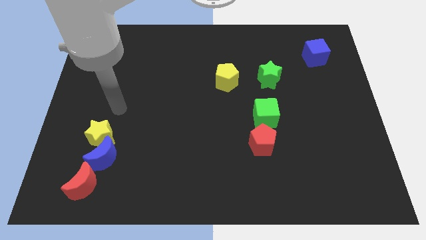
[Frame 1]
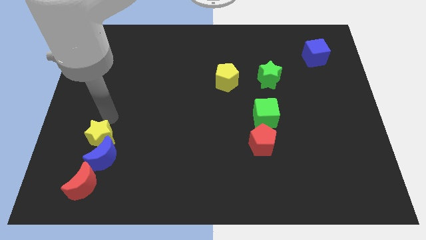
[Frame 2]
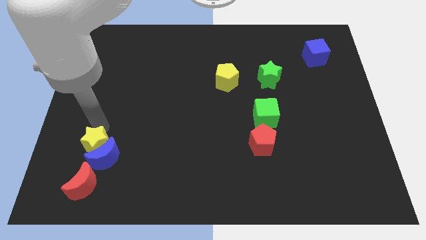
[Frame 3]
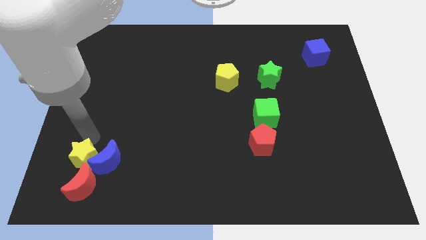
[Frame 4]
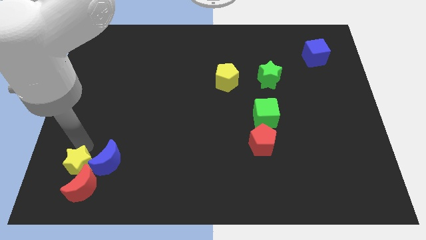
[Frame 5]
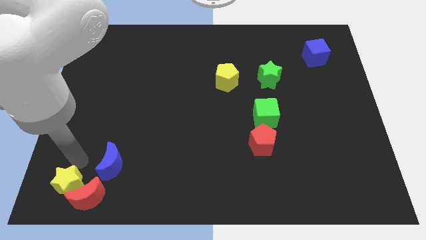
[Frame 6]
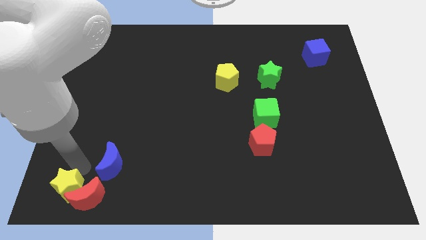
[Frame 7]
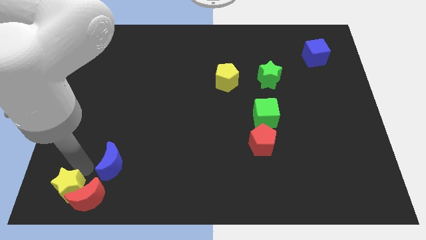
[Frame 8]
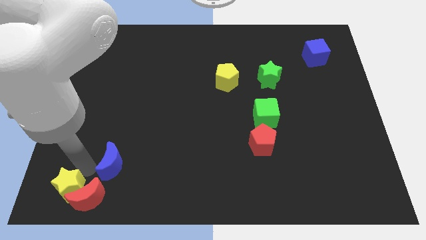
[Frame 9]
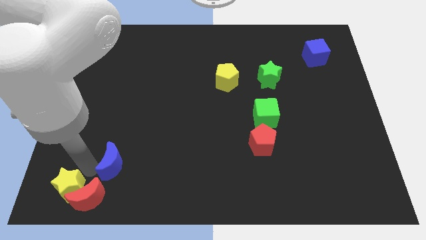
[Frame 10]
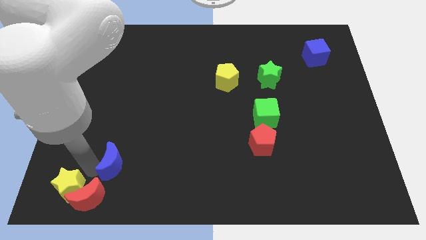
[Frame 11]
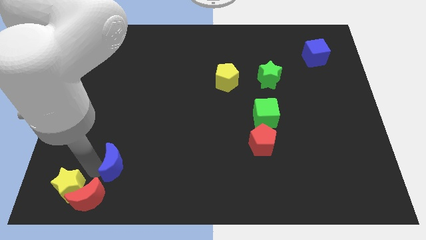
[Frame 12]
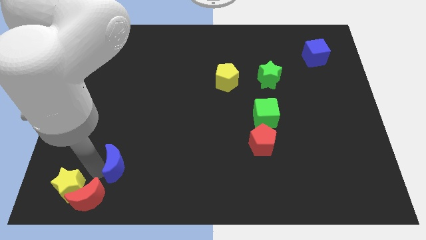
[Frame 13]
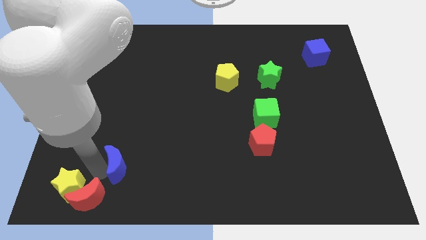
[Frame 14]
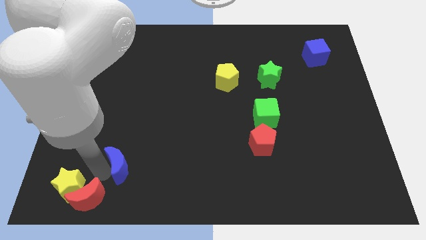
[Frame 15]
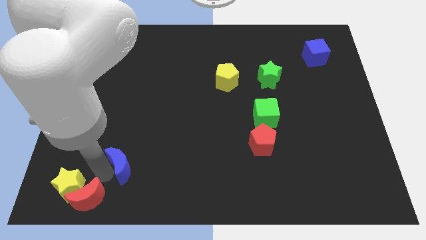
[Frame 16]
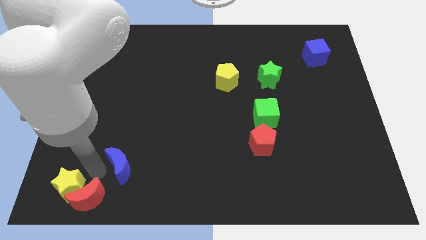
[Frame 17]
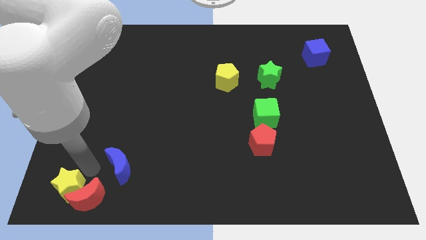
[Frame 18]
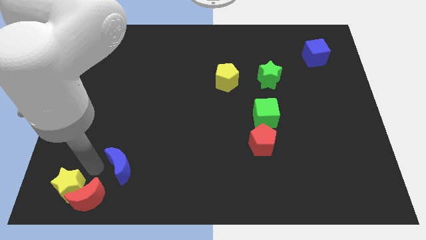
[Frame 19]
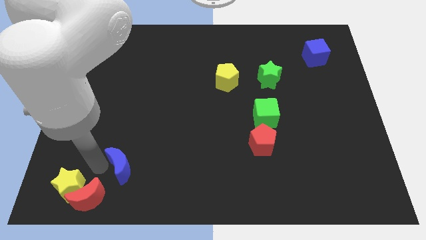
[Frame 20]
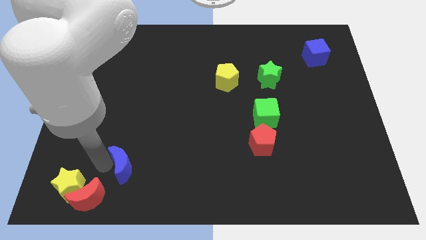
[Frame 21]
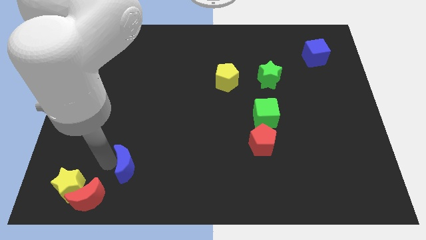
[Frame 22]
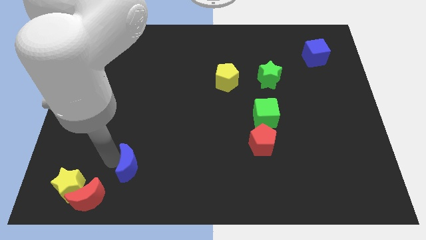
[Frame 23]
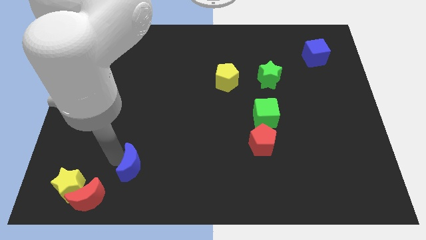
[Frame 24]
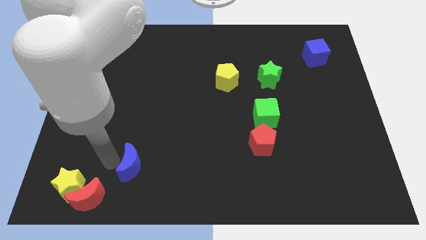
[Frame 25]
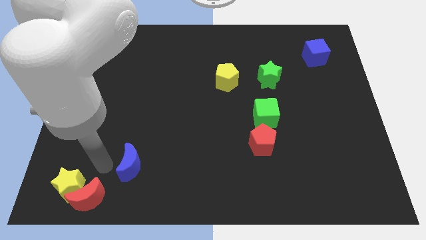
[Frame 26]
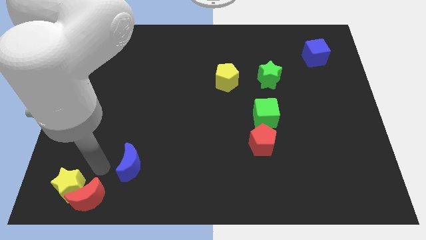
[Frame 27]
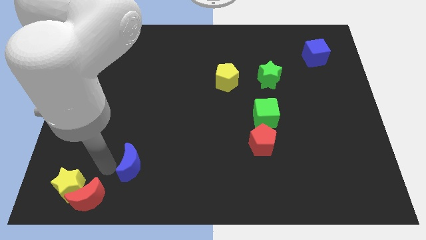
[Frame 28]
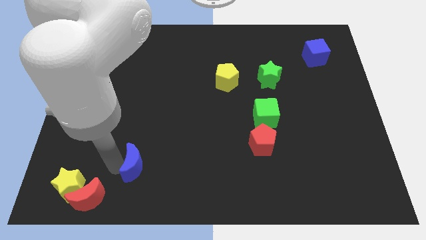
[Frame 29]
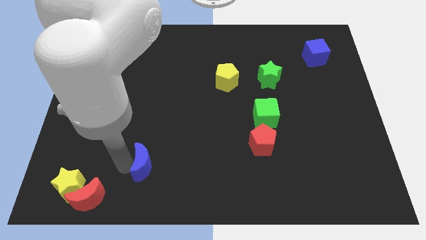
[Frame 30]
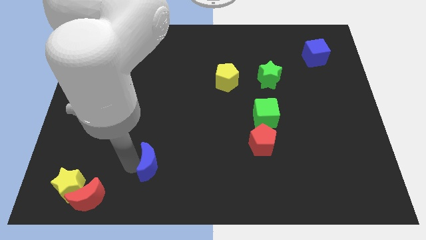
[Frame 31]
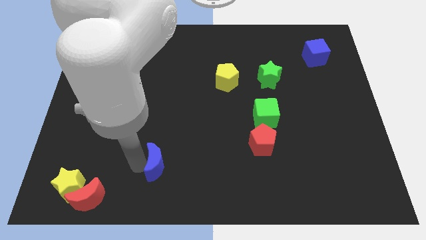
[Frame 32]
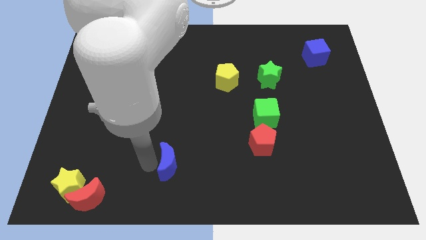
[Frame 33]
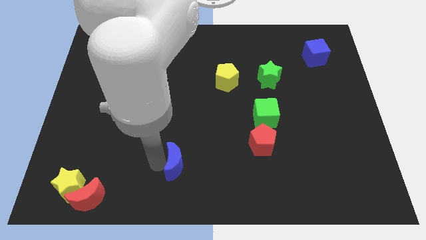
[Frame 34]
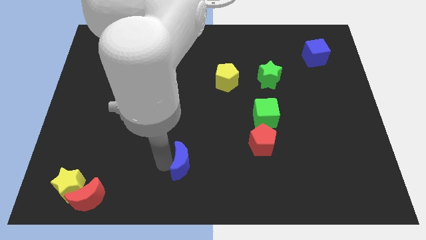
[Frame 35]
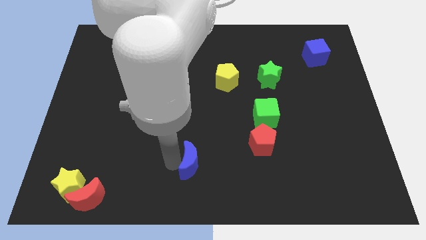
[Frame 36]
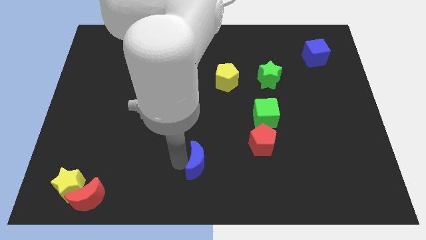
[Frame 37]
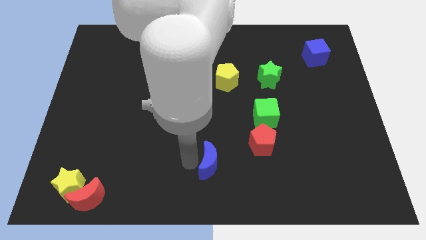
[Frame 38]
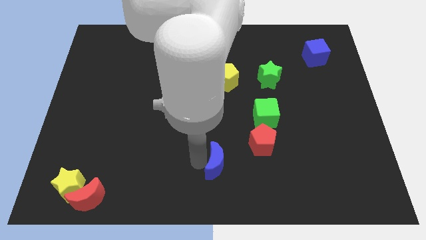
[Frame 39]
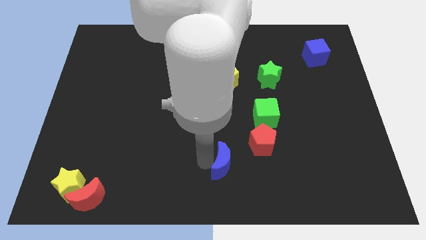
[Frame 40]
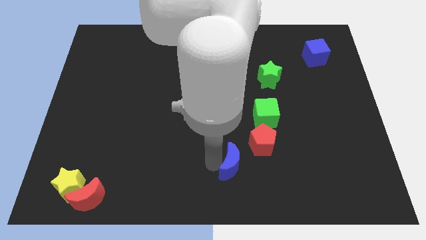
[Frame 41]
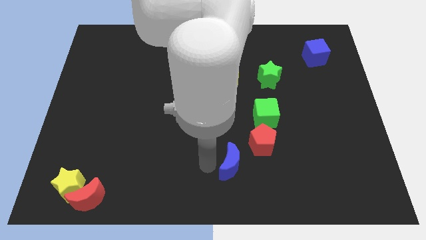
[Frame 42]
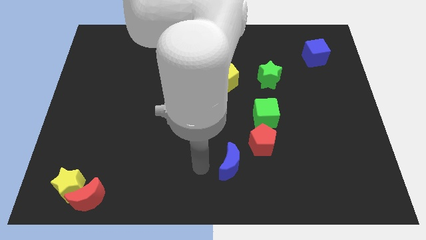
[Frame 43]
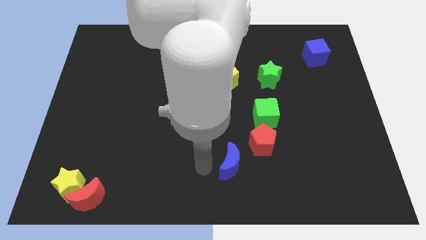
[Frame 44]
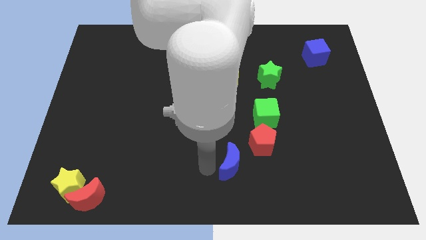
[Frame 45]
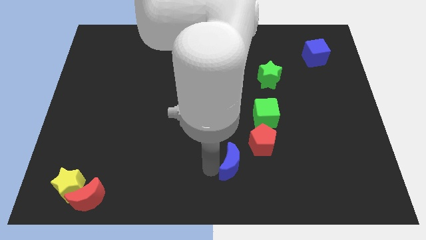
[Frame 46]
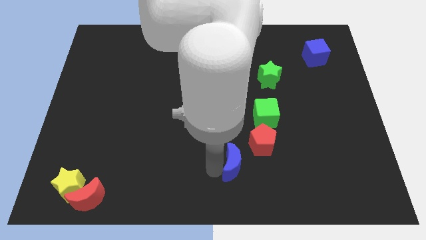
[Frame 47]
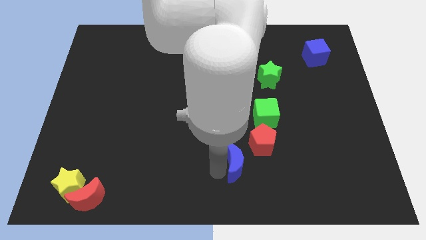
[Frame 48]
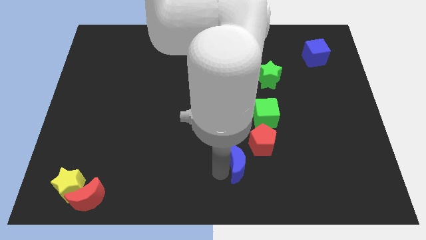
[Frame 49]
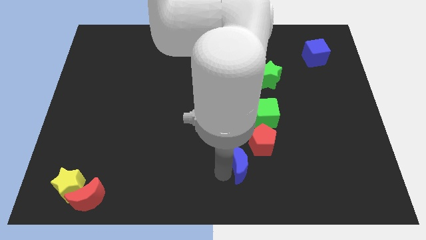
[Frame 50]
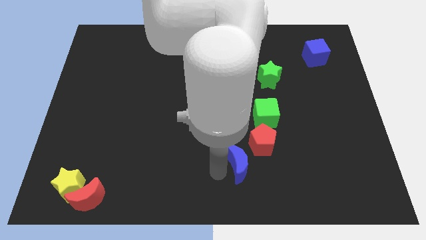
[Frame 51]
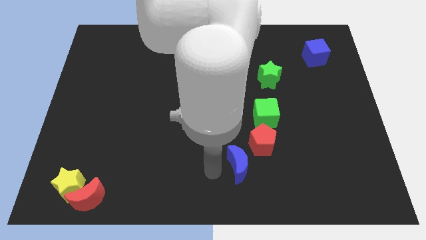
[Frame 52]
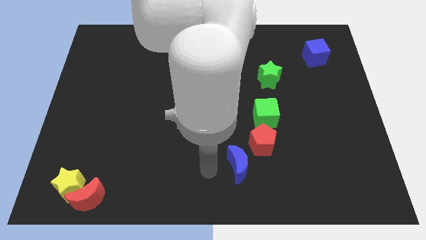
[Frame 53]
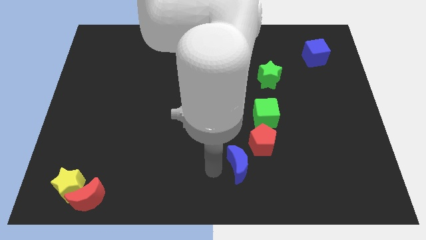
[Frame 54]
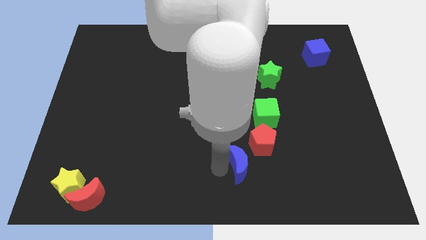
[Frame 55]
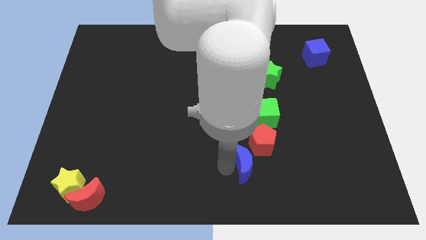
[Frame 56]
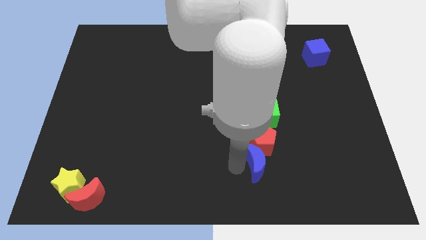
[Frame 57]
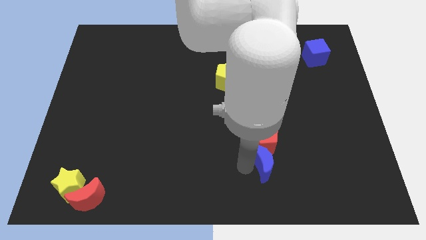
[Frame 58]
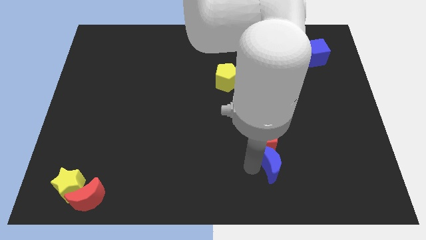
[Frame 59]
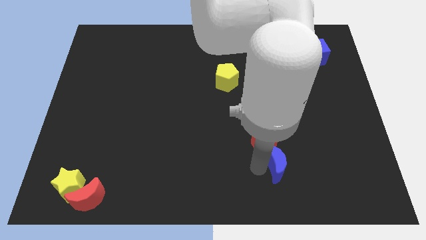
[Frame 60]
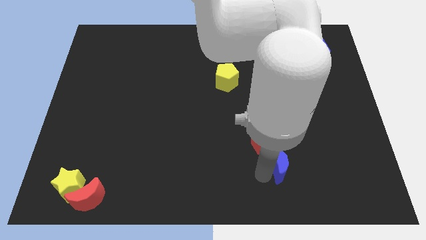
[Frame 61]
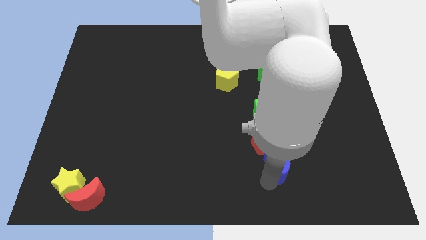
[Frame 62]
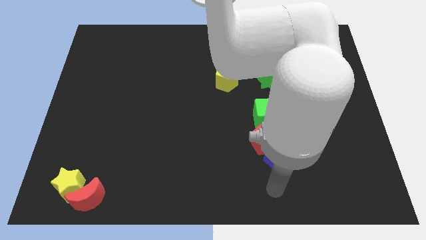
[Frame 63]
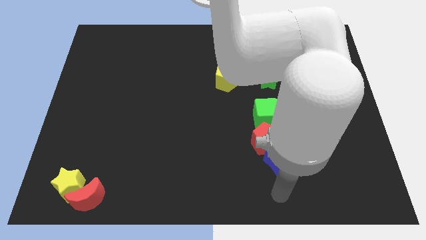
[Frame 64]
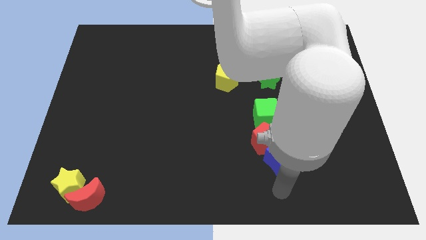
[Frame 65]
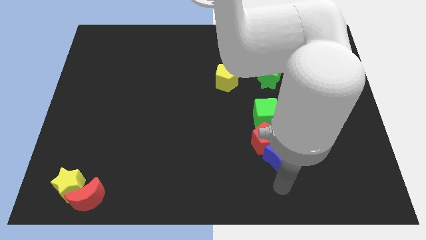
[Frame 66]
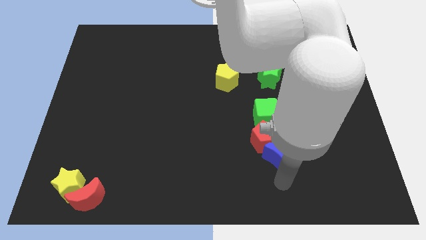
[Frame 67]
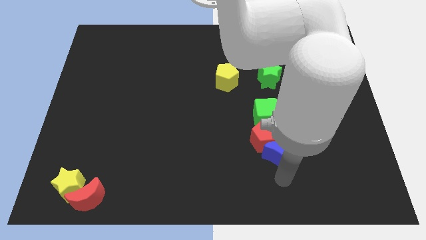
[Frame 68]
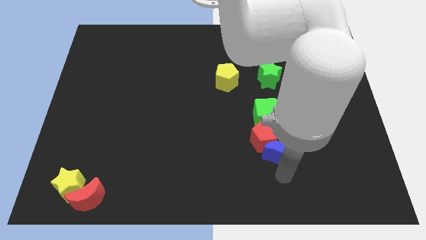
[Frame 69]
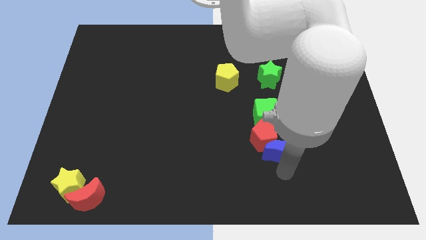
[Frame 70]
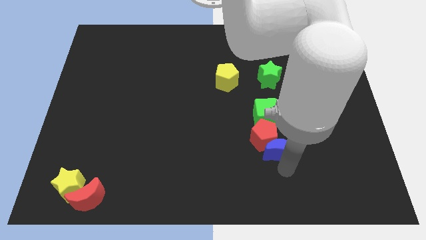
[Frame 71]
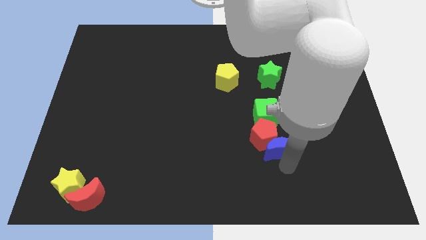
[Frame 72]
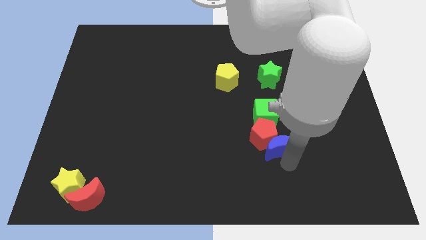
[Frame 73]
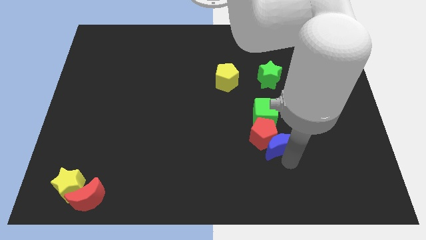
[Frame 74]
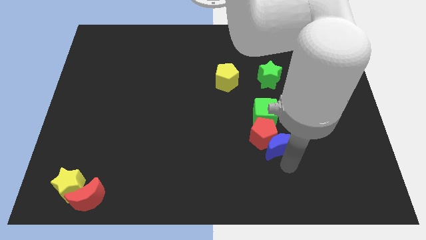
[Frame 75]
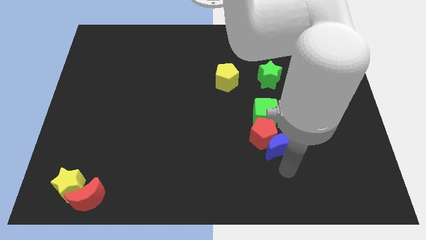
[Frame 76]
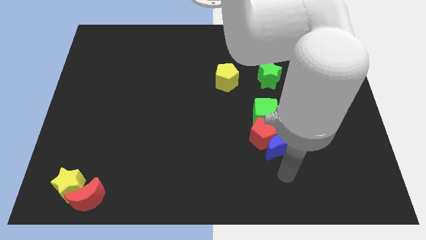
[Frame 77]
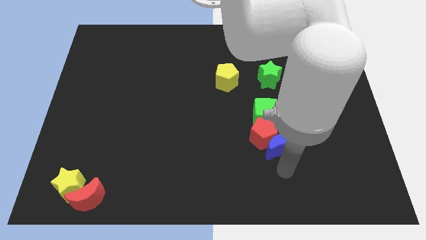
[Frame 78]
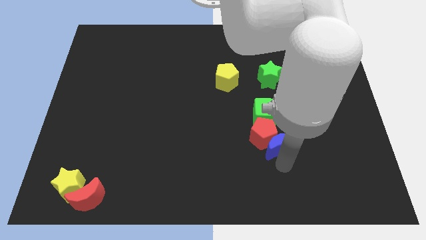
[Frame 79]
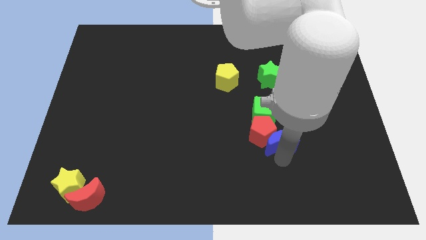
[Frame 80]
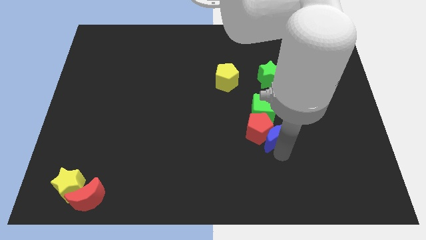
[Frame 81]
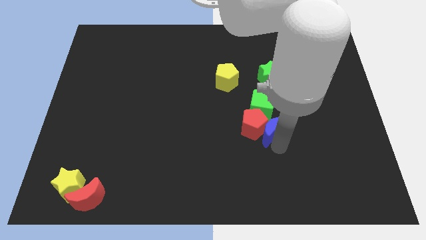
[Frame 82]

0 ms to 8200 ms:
put the blue moon to the bottom of the green star
